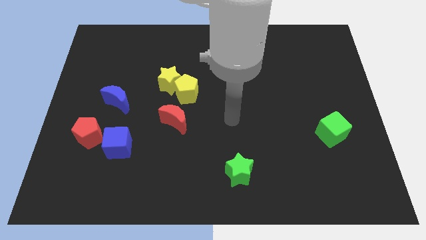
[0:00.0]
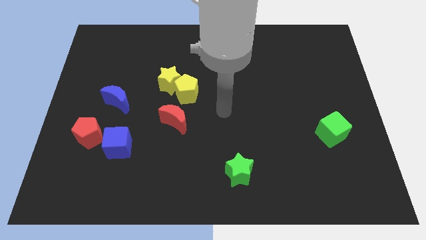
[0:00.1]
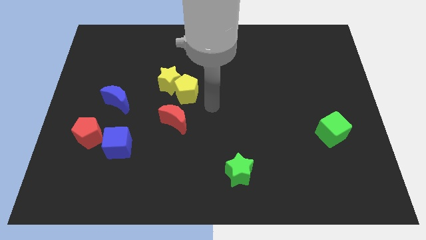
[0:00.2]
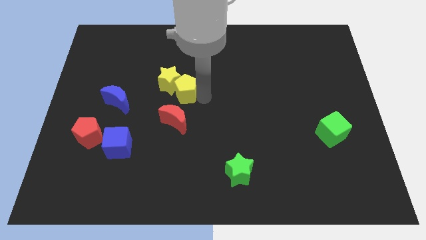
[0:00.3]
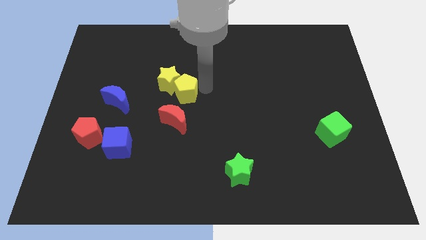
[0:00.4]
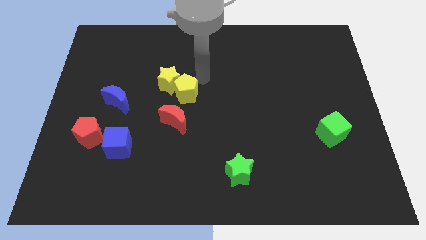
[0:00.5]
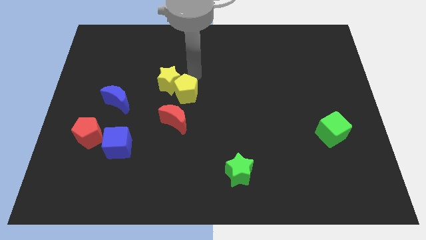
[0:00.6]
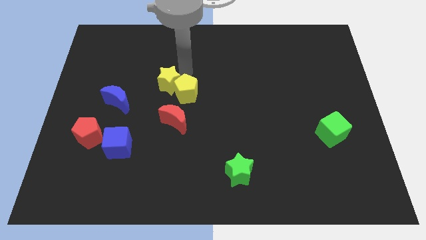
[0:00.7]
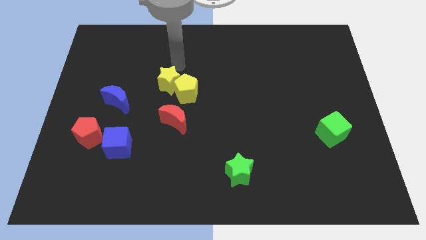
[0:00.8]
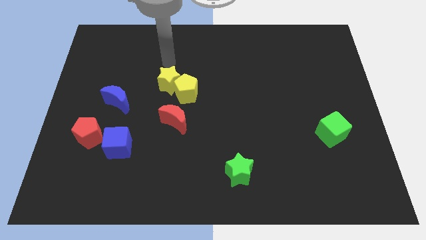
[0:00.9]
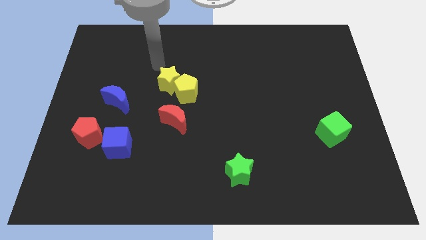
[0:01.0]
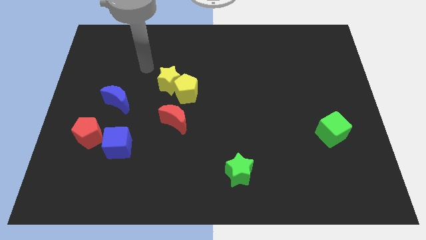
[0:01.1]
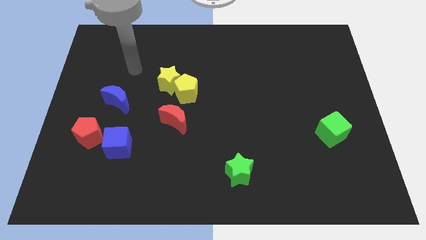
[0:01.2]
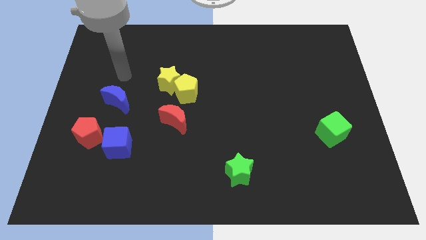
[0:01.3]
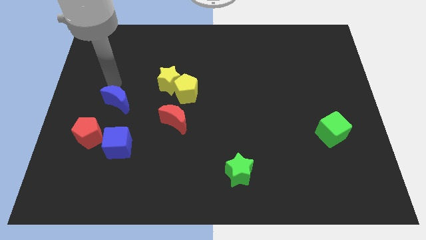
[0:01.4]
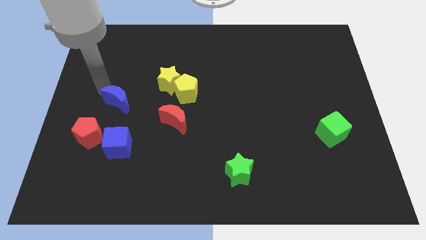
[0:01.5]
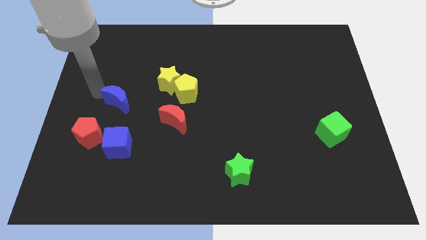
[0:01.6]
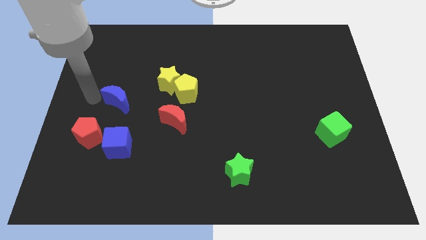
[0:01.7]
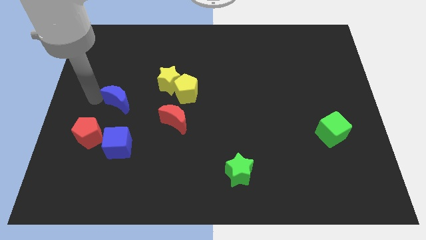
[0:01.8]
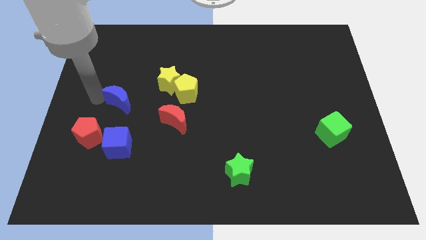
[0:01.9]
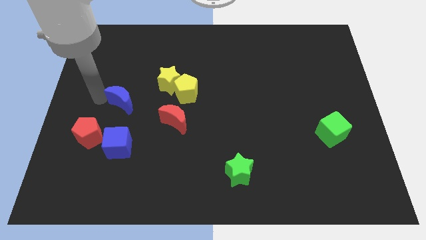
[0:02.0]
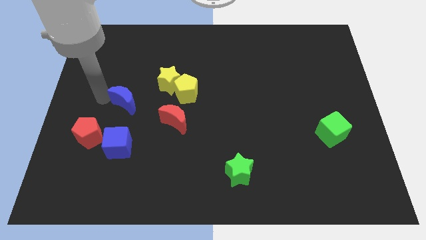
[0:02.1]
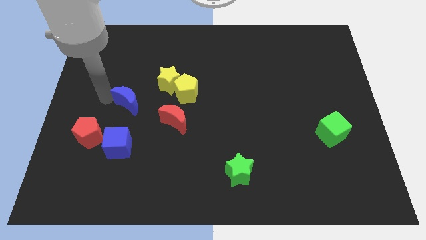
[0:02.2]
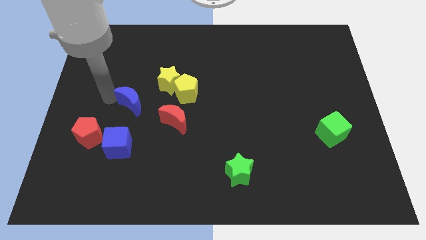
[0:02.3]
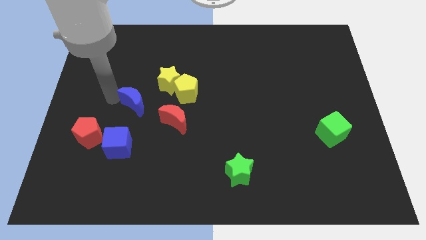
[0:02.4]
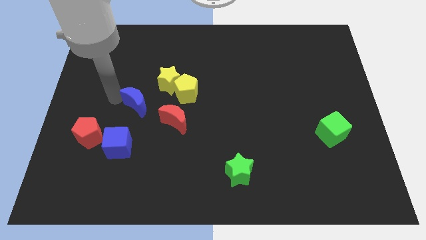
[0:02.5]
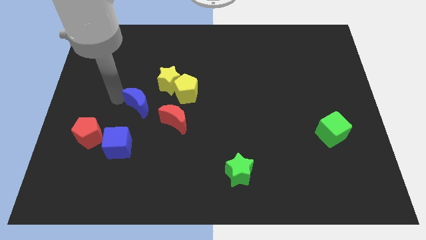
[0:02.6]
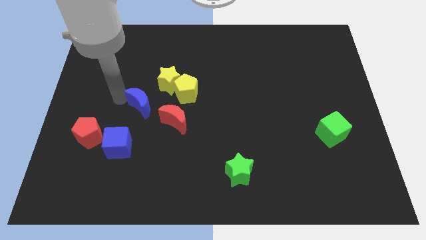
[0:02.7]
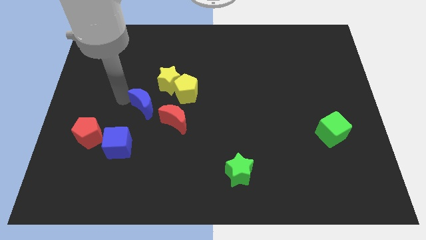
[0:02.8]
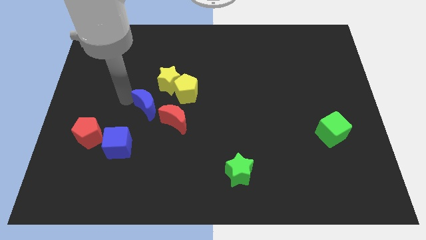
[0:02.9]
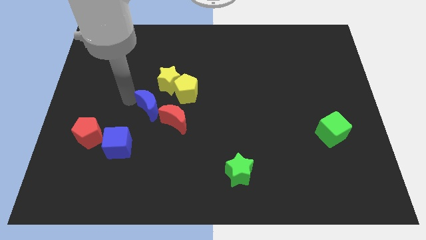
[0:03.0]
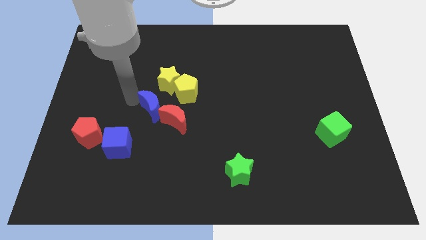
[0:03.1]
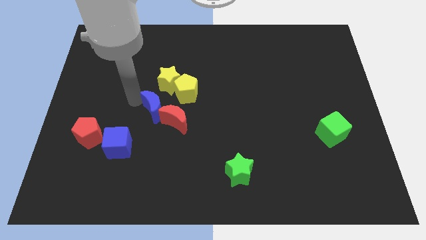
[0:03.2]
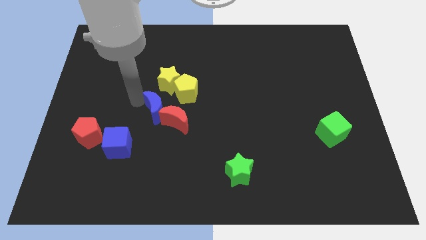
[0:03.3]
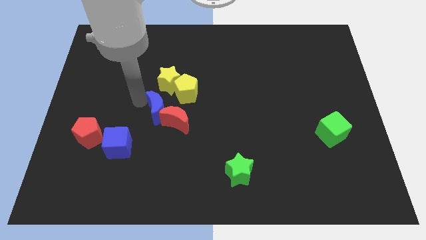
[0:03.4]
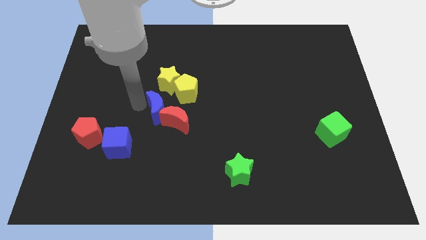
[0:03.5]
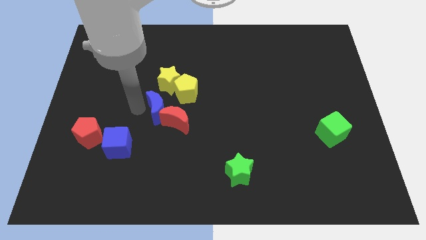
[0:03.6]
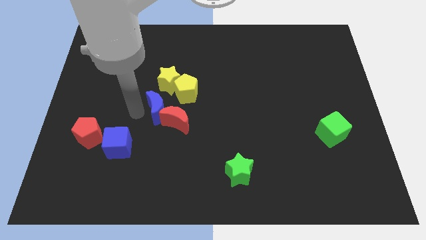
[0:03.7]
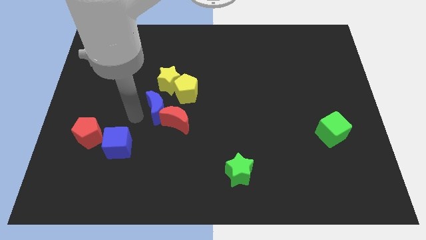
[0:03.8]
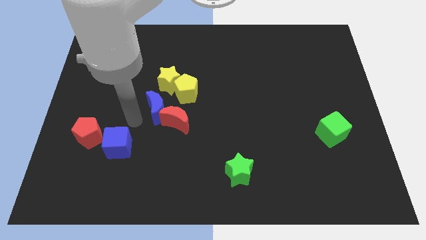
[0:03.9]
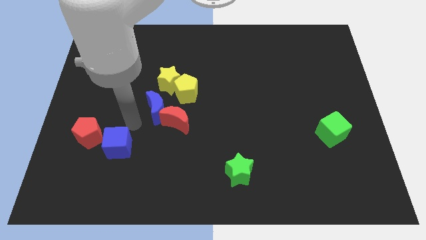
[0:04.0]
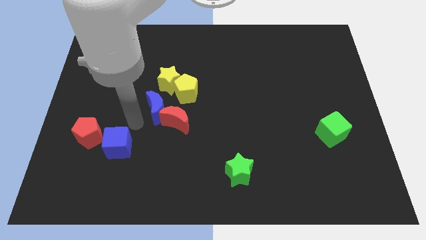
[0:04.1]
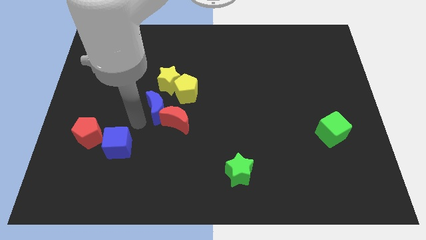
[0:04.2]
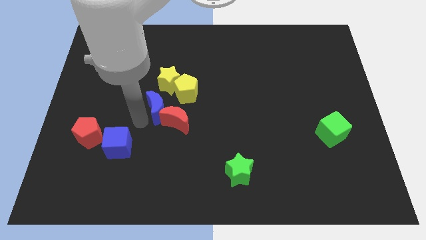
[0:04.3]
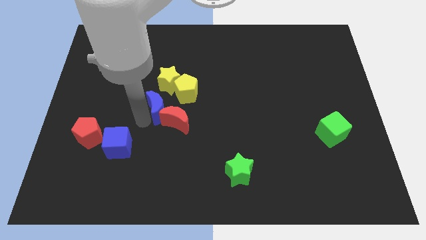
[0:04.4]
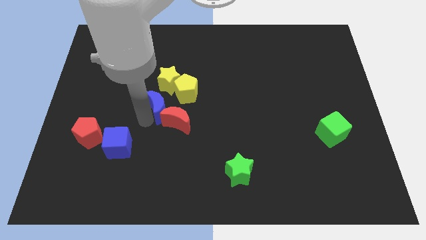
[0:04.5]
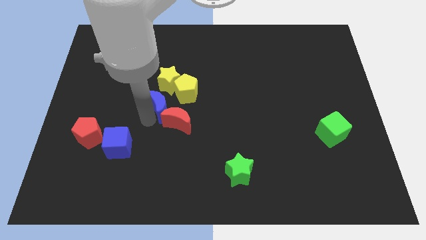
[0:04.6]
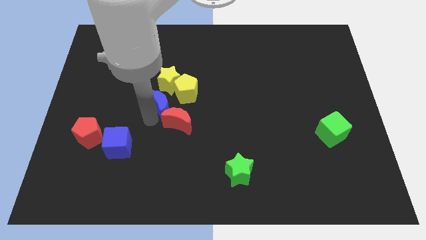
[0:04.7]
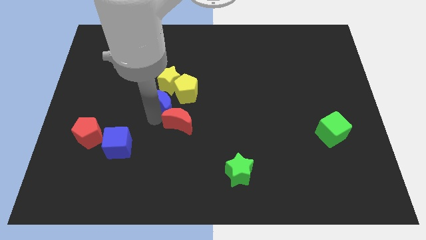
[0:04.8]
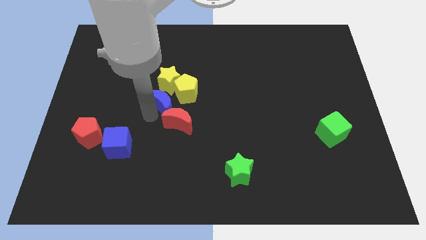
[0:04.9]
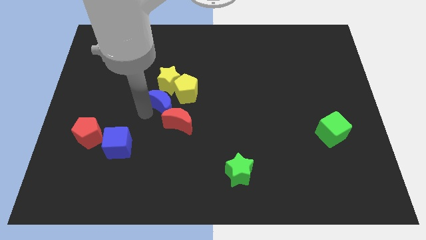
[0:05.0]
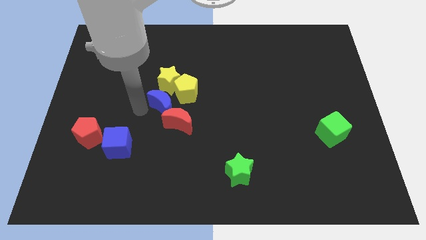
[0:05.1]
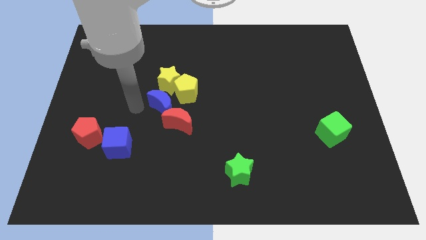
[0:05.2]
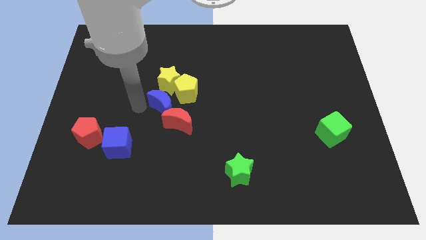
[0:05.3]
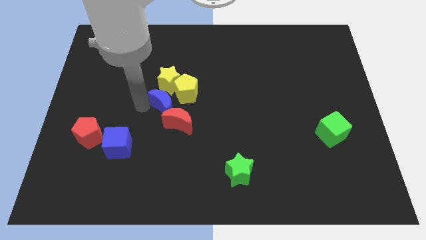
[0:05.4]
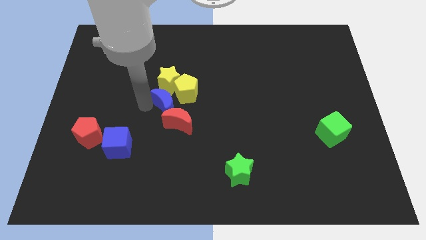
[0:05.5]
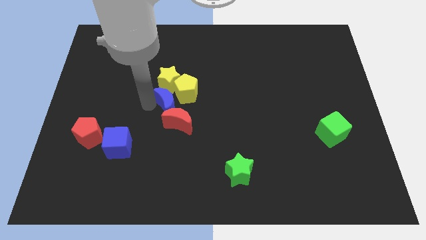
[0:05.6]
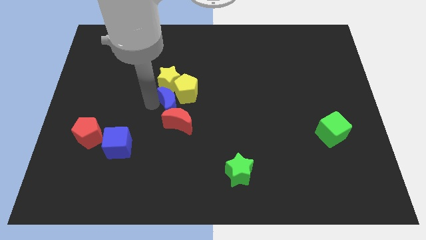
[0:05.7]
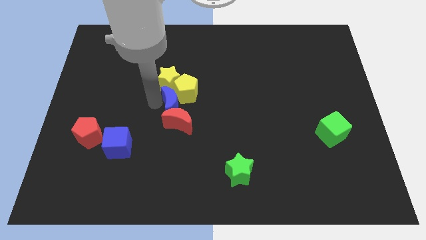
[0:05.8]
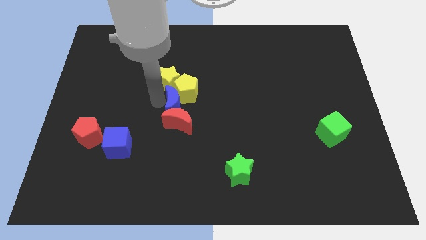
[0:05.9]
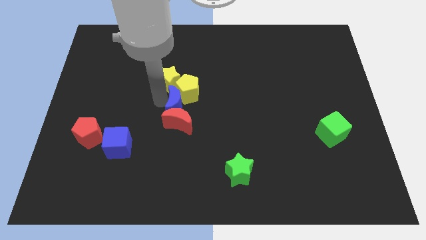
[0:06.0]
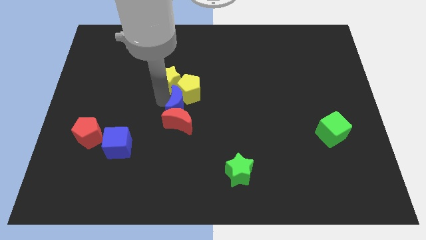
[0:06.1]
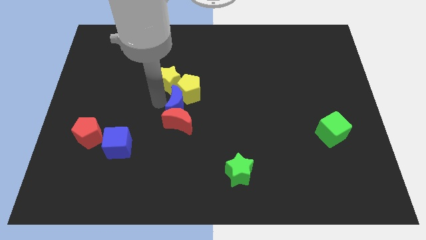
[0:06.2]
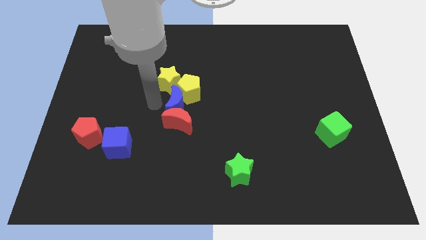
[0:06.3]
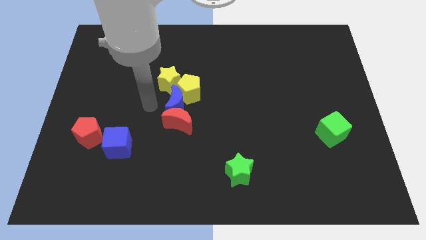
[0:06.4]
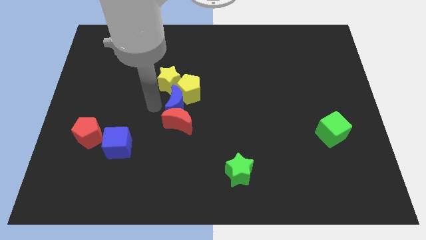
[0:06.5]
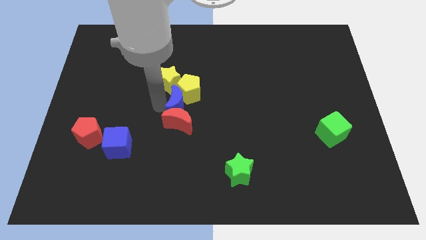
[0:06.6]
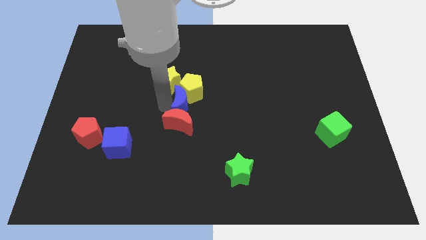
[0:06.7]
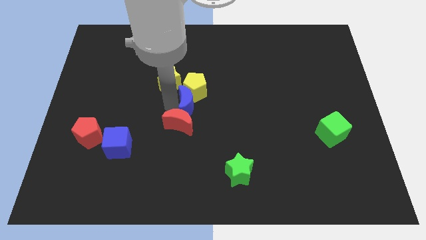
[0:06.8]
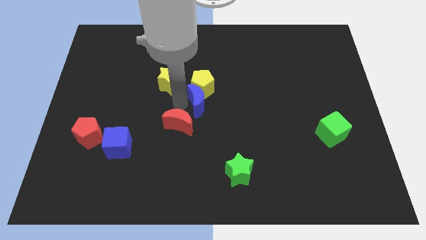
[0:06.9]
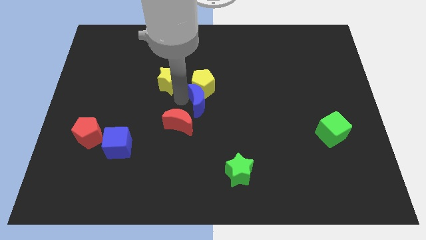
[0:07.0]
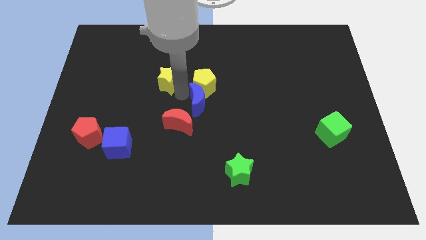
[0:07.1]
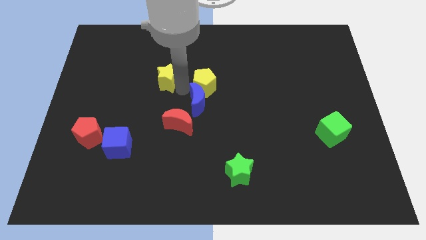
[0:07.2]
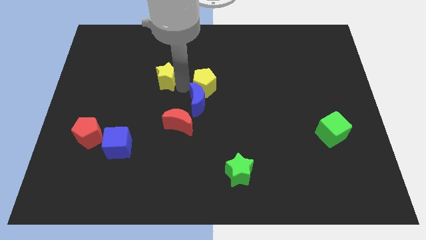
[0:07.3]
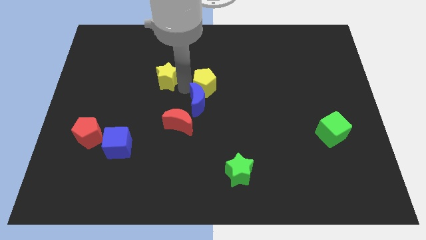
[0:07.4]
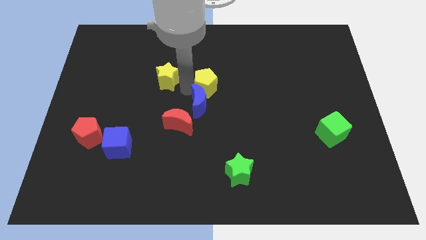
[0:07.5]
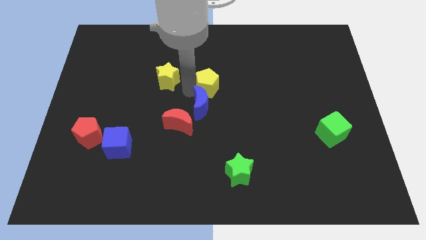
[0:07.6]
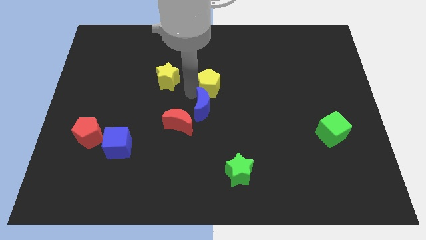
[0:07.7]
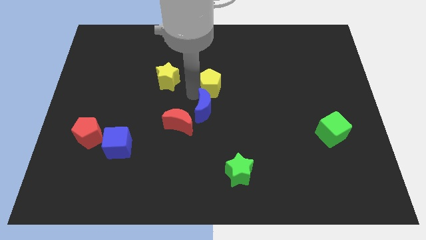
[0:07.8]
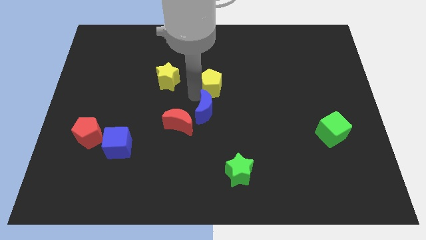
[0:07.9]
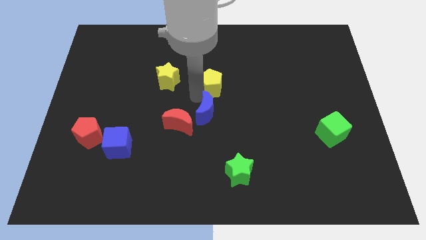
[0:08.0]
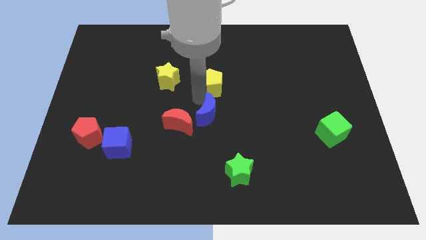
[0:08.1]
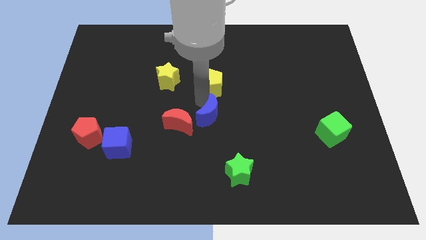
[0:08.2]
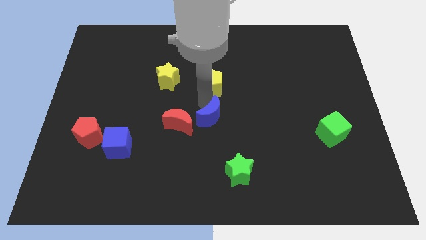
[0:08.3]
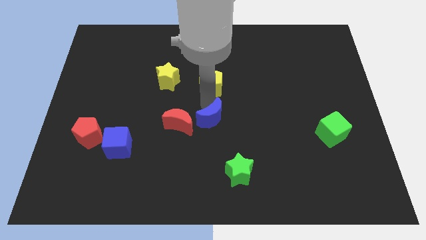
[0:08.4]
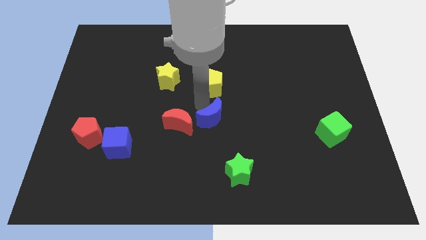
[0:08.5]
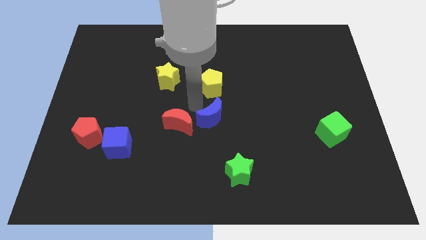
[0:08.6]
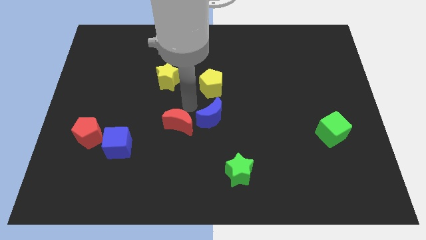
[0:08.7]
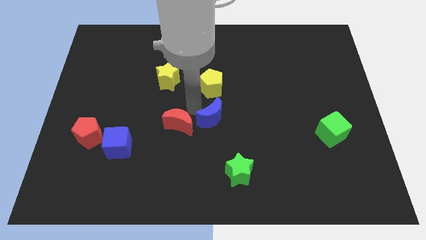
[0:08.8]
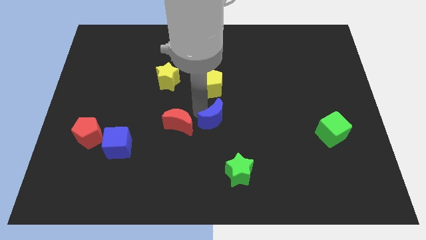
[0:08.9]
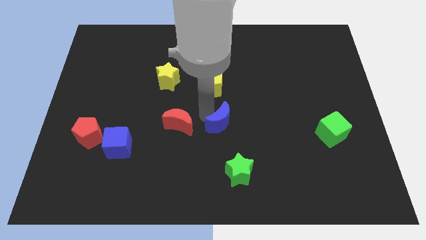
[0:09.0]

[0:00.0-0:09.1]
push the blue moon to the top of the green star
